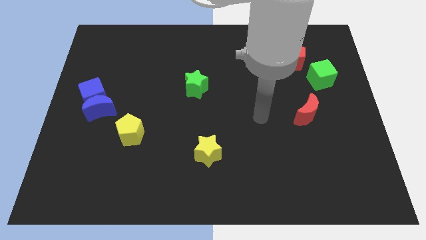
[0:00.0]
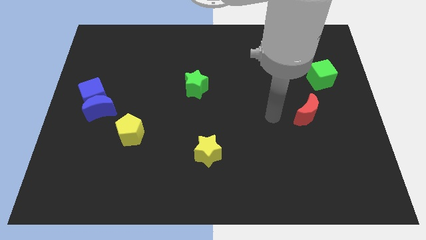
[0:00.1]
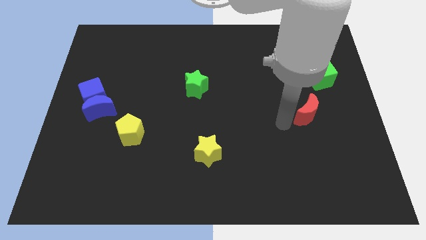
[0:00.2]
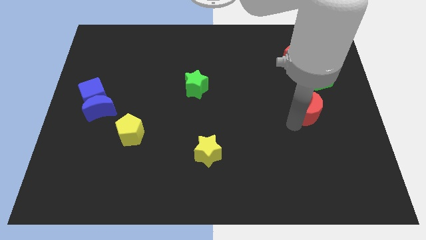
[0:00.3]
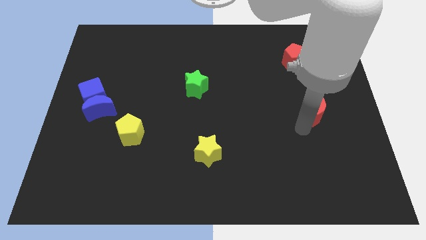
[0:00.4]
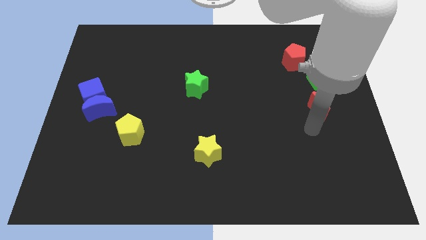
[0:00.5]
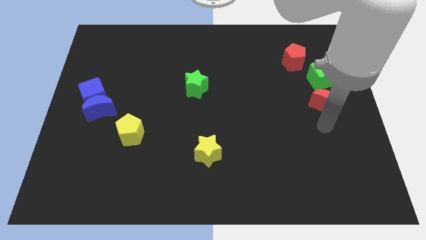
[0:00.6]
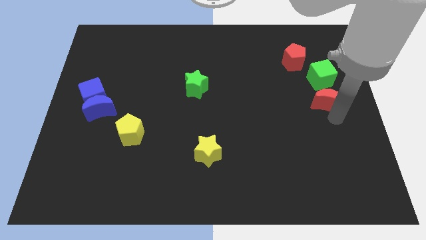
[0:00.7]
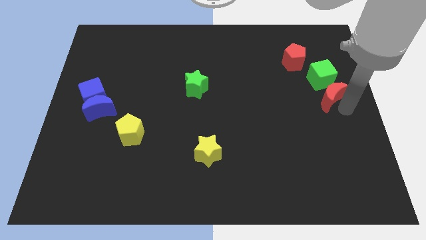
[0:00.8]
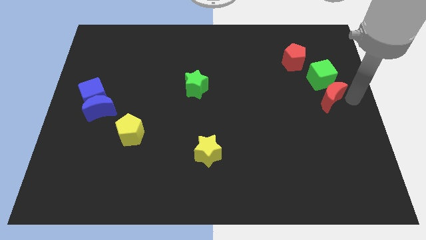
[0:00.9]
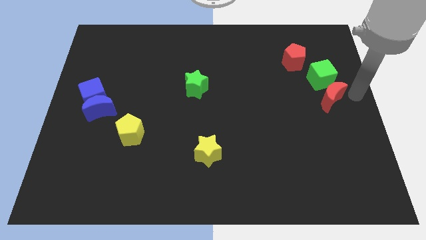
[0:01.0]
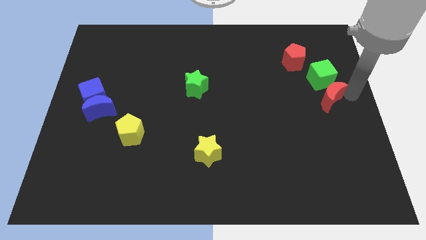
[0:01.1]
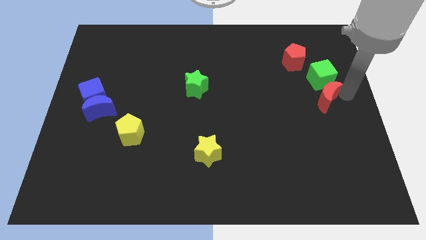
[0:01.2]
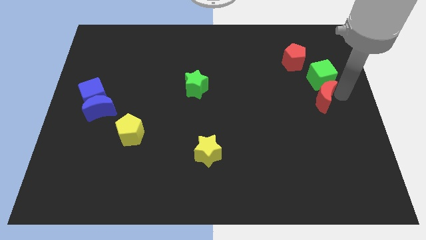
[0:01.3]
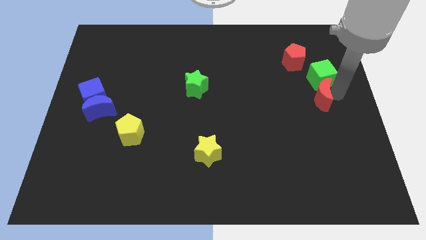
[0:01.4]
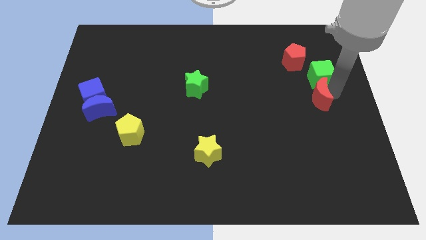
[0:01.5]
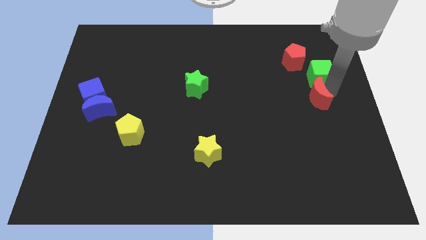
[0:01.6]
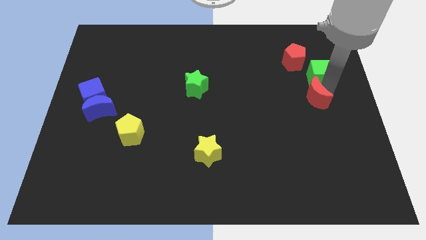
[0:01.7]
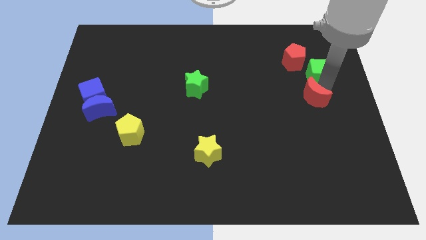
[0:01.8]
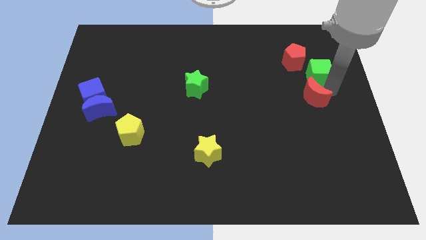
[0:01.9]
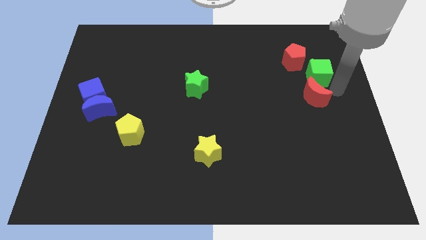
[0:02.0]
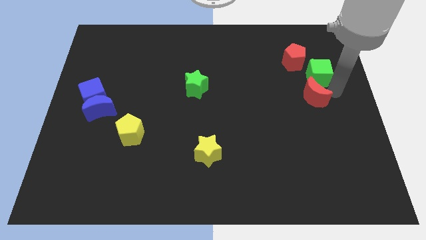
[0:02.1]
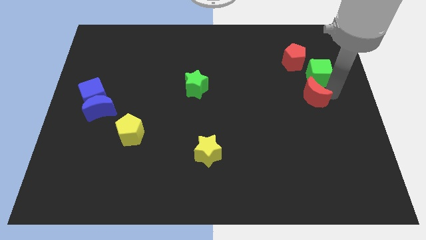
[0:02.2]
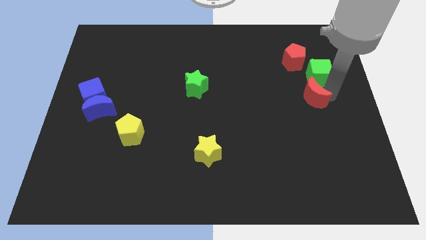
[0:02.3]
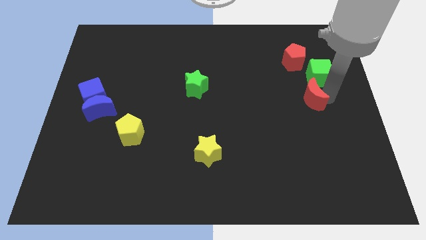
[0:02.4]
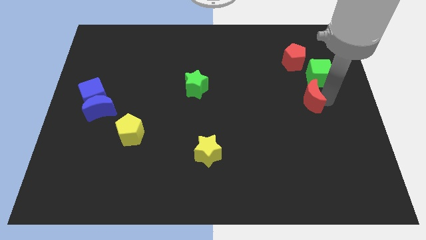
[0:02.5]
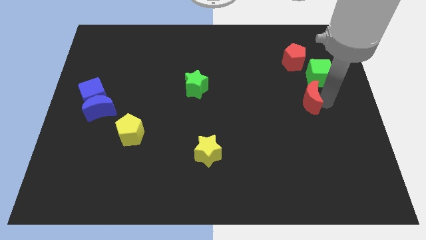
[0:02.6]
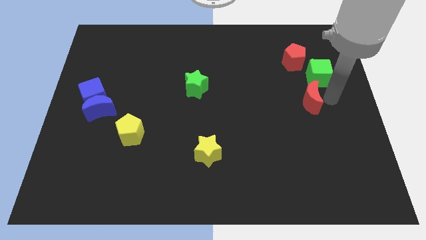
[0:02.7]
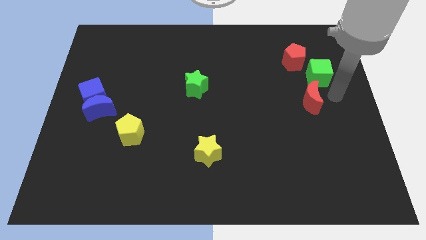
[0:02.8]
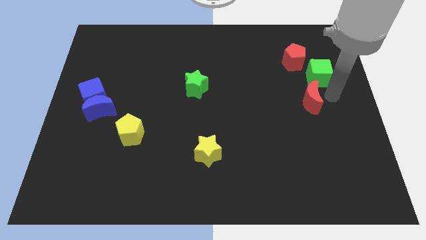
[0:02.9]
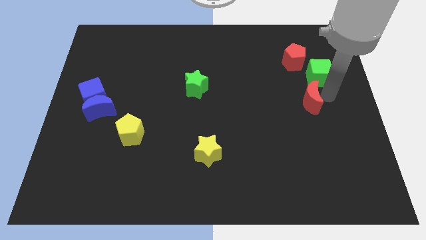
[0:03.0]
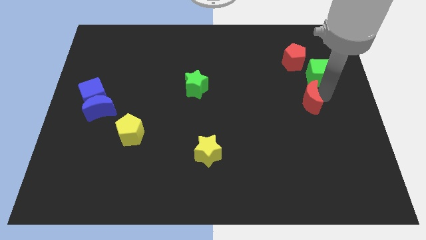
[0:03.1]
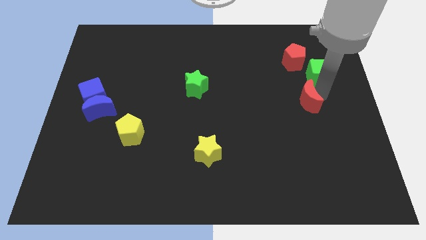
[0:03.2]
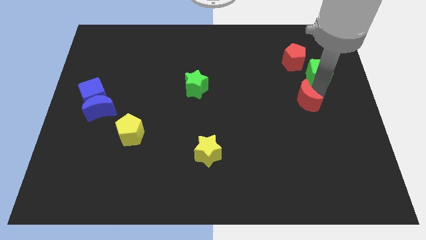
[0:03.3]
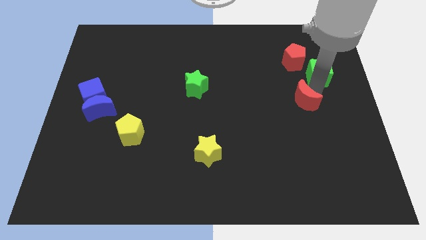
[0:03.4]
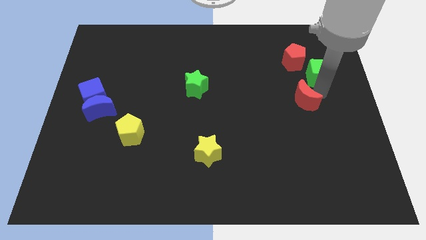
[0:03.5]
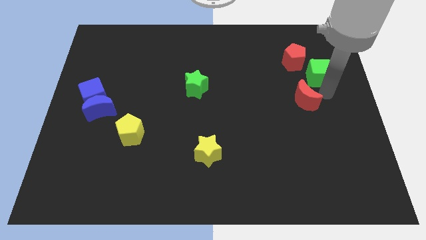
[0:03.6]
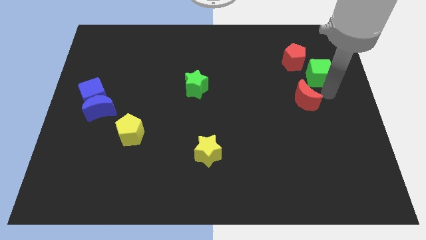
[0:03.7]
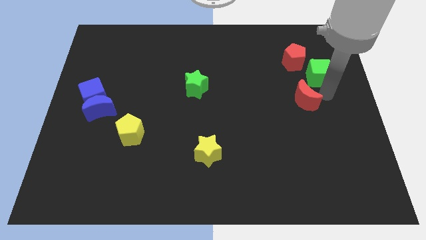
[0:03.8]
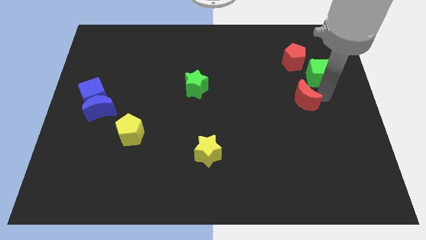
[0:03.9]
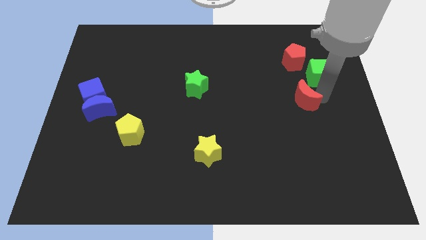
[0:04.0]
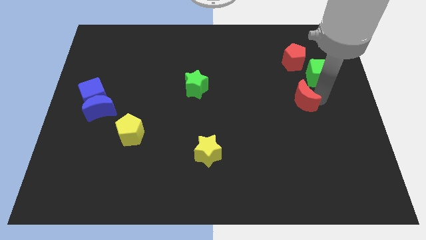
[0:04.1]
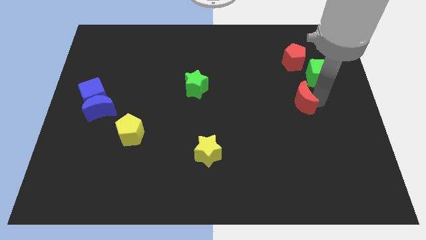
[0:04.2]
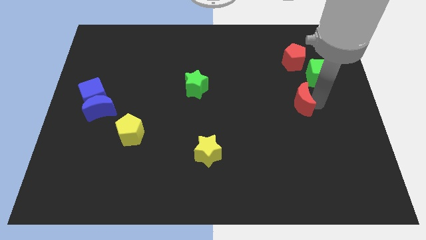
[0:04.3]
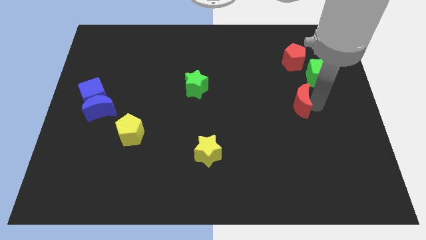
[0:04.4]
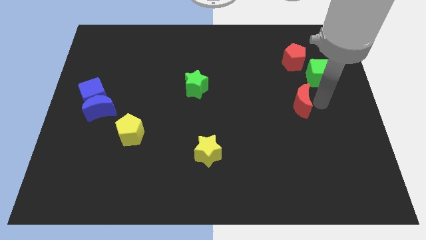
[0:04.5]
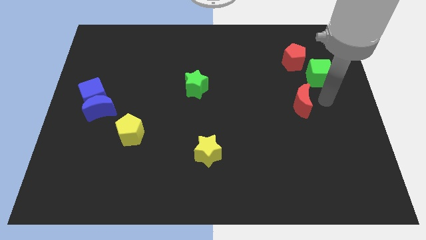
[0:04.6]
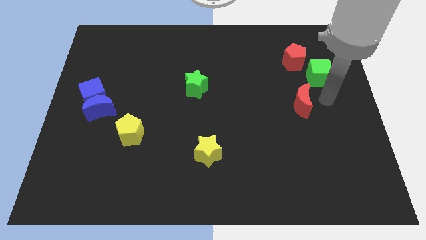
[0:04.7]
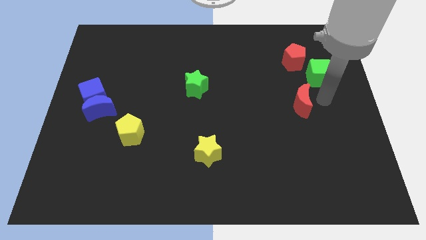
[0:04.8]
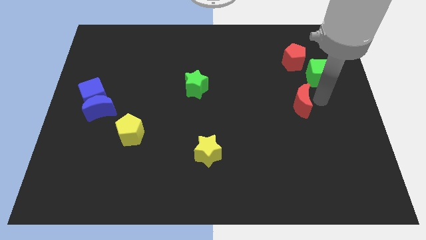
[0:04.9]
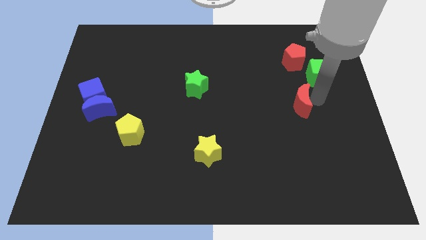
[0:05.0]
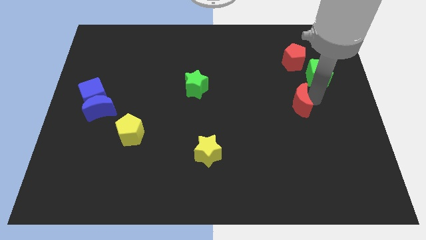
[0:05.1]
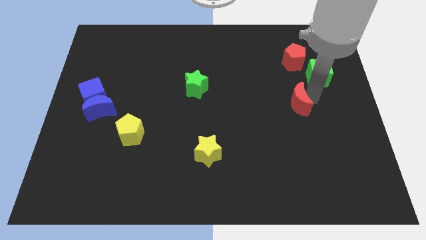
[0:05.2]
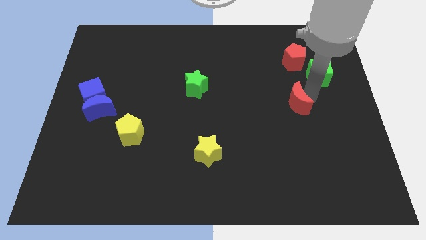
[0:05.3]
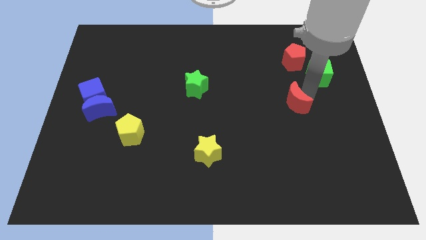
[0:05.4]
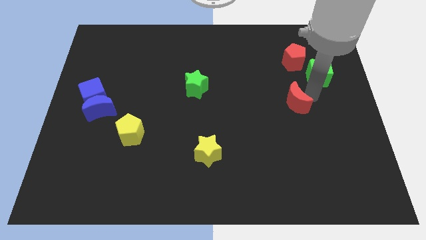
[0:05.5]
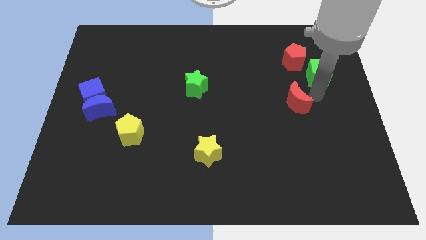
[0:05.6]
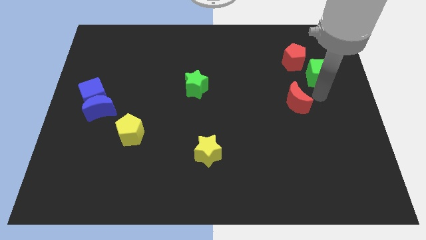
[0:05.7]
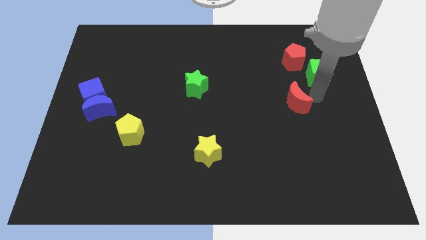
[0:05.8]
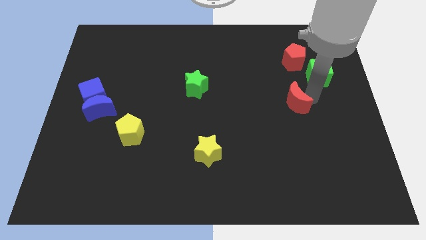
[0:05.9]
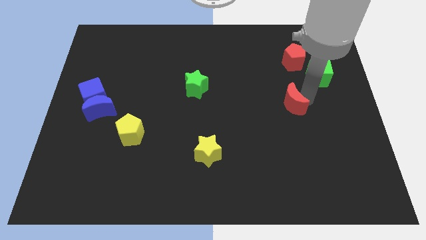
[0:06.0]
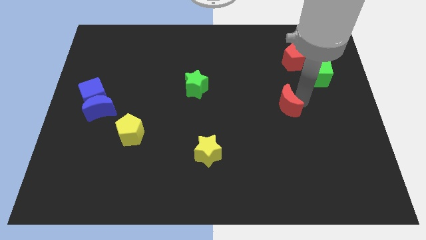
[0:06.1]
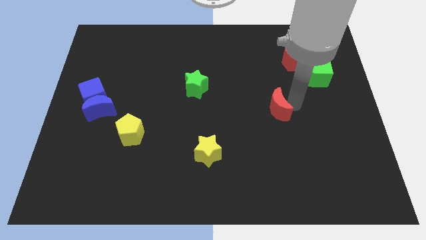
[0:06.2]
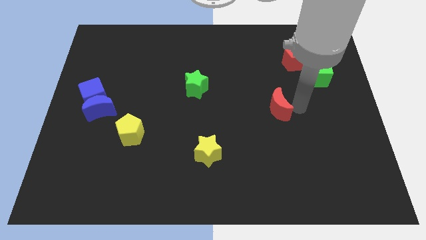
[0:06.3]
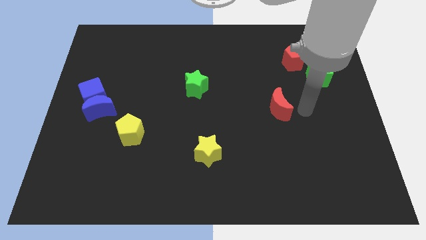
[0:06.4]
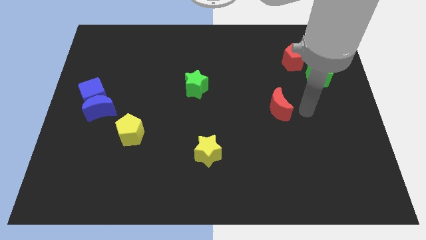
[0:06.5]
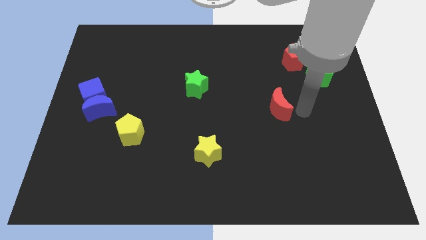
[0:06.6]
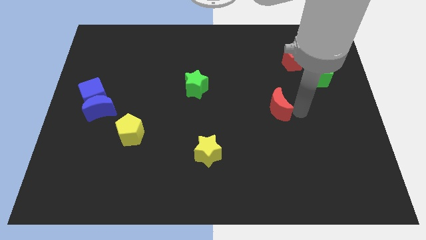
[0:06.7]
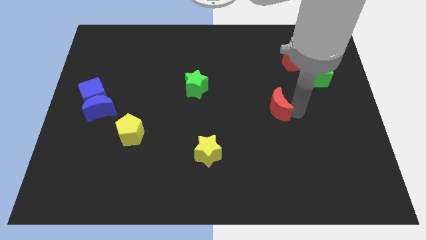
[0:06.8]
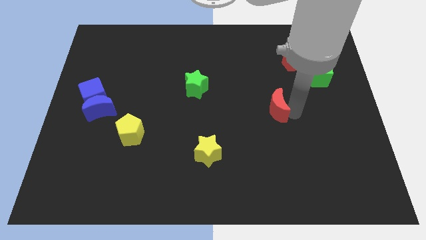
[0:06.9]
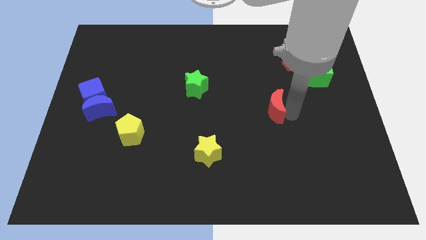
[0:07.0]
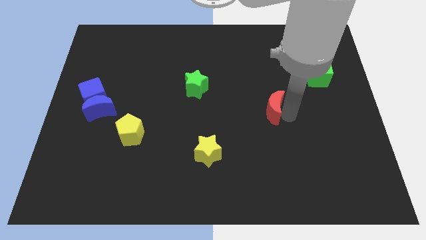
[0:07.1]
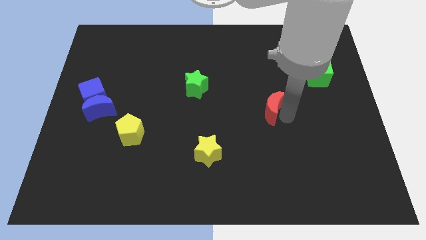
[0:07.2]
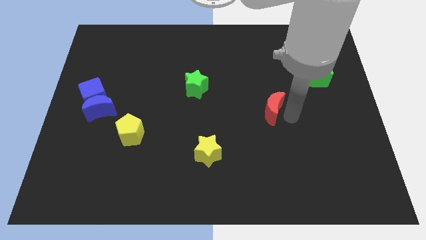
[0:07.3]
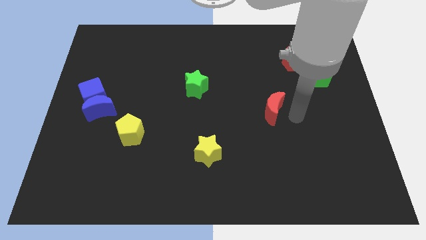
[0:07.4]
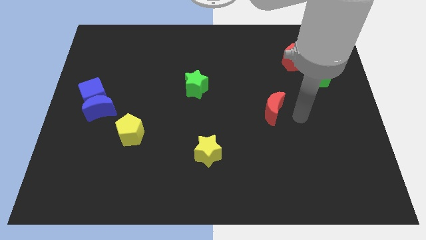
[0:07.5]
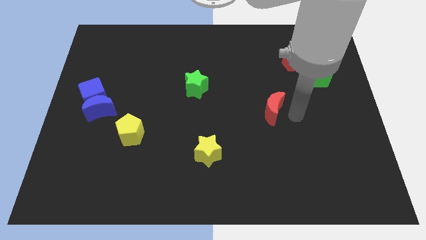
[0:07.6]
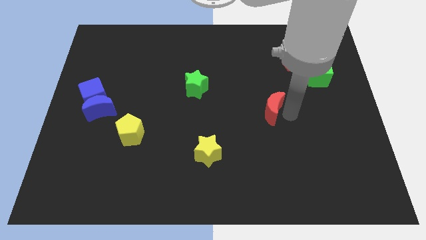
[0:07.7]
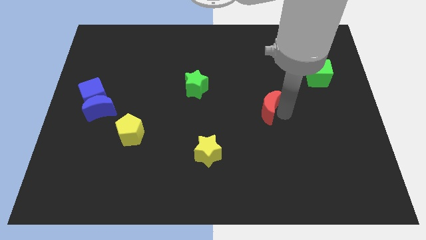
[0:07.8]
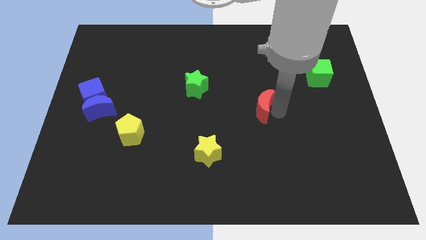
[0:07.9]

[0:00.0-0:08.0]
slide the red moon to the middle of the board
